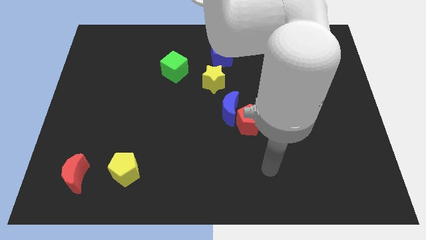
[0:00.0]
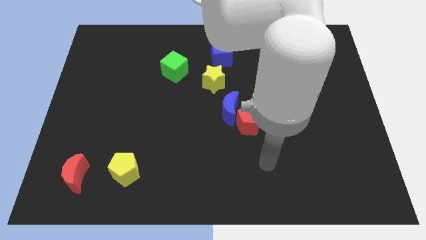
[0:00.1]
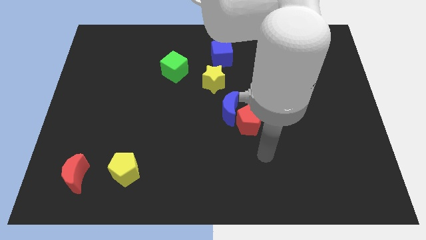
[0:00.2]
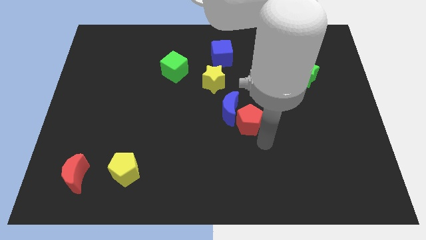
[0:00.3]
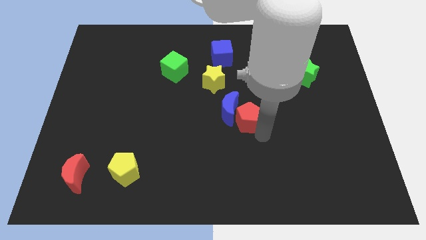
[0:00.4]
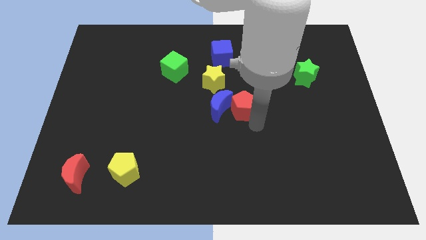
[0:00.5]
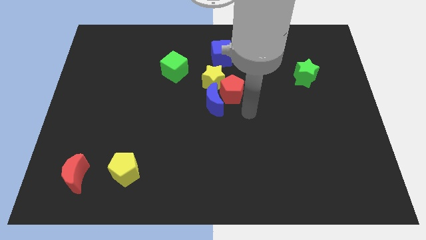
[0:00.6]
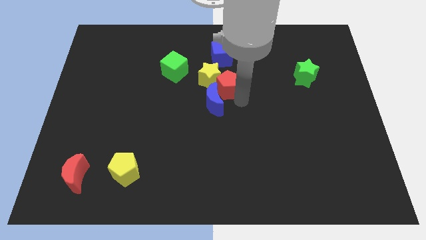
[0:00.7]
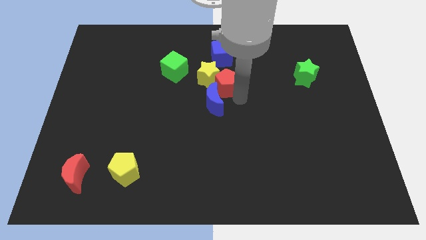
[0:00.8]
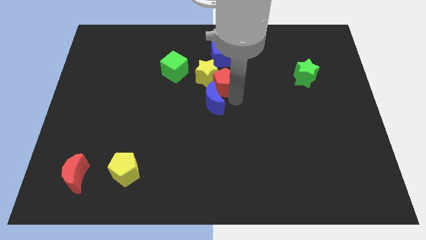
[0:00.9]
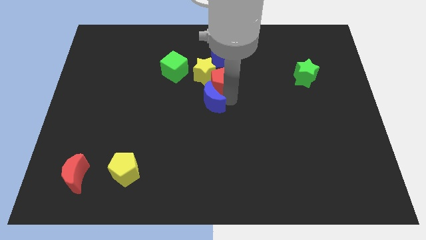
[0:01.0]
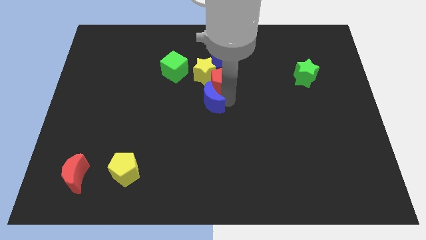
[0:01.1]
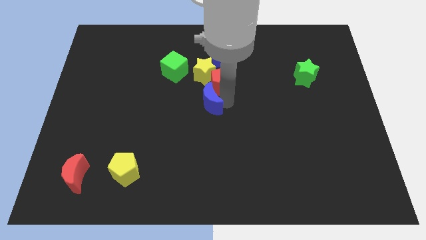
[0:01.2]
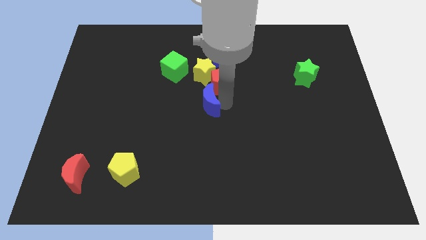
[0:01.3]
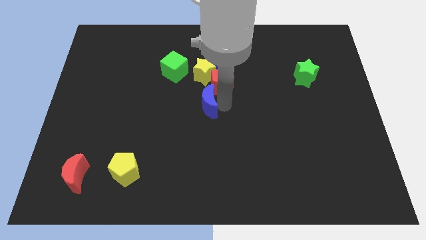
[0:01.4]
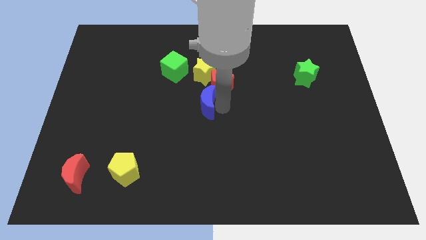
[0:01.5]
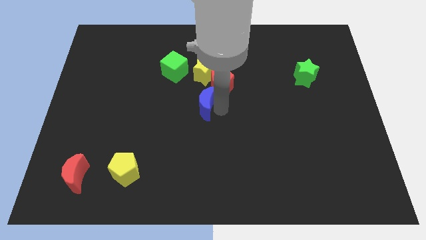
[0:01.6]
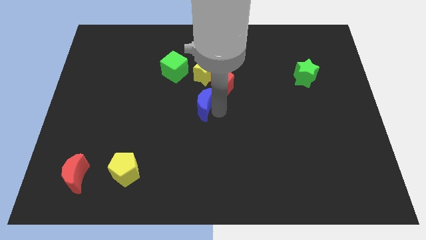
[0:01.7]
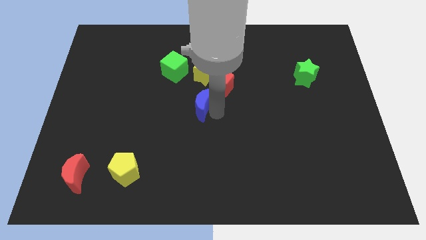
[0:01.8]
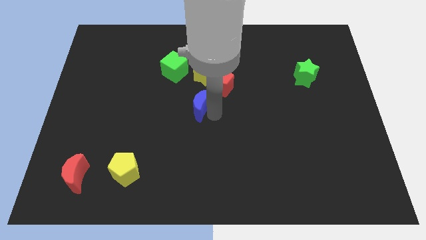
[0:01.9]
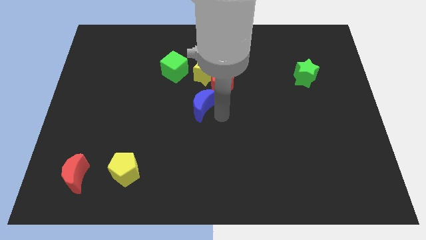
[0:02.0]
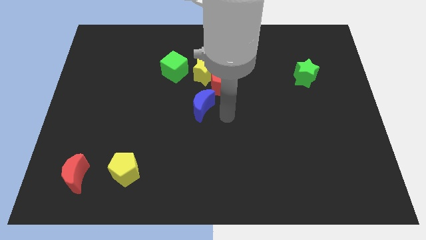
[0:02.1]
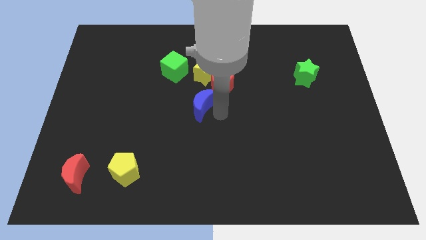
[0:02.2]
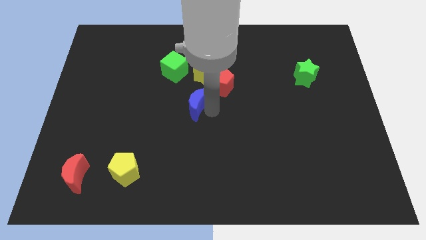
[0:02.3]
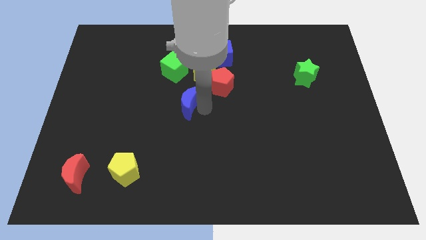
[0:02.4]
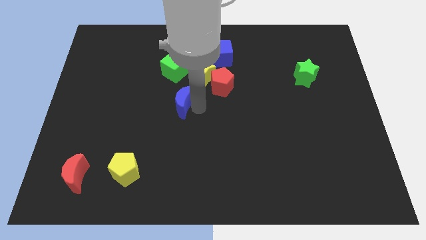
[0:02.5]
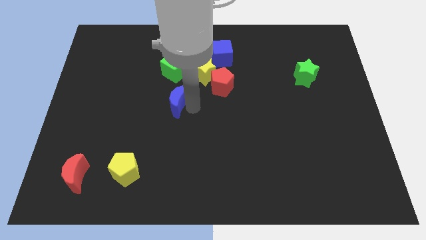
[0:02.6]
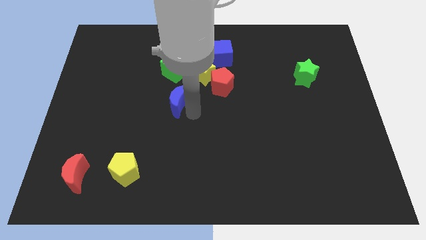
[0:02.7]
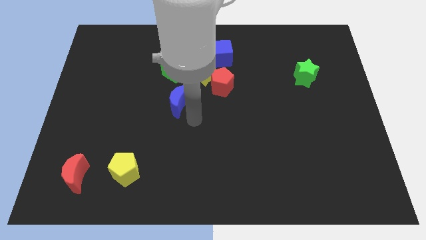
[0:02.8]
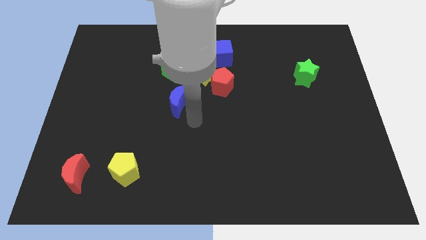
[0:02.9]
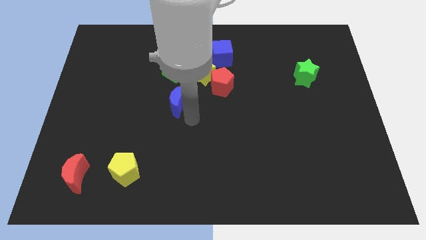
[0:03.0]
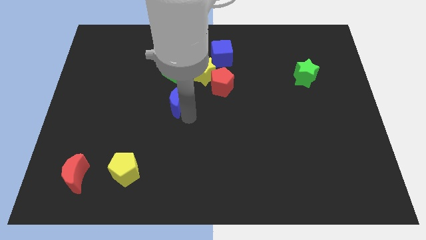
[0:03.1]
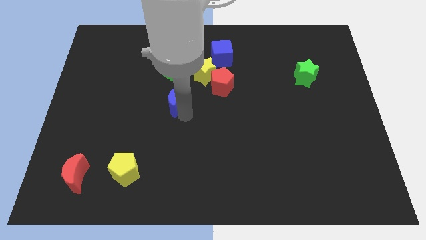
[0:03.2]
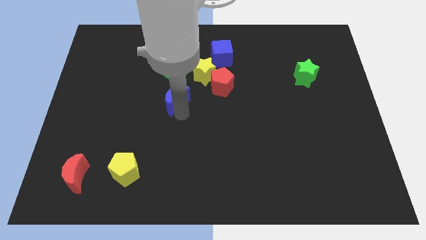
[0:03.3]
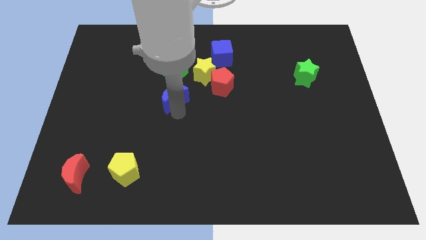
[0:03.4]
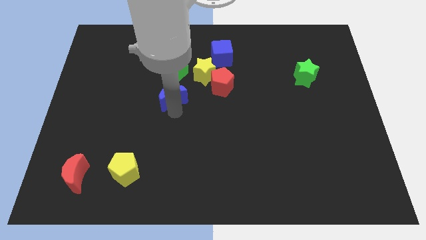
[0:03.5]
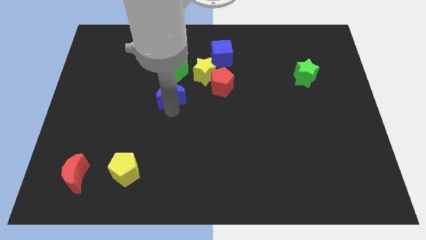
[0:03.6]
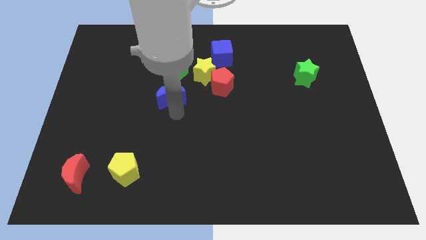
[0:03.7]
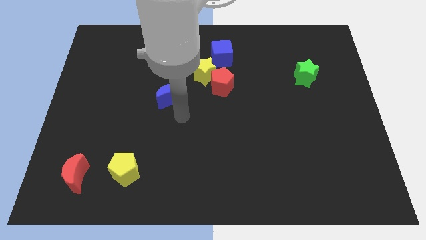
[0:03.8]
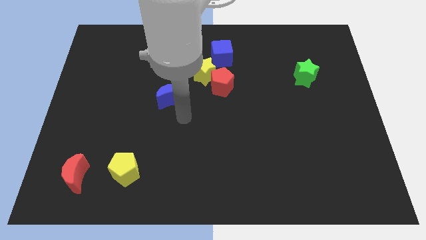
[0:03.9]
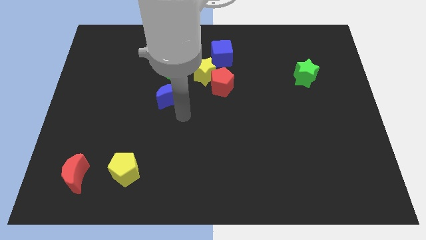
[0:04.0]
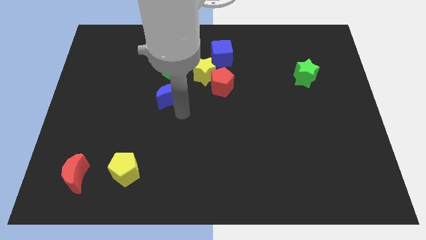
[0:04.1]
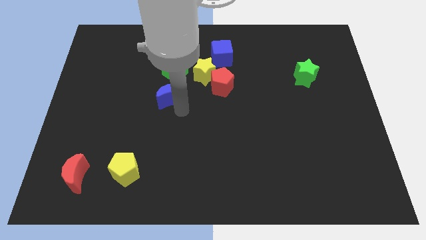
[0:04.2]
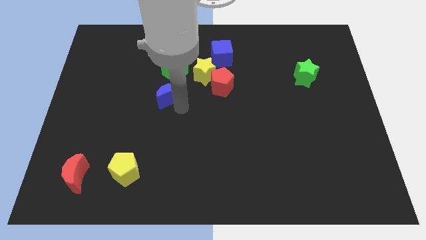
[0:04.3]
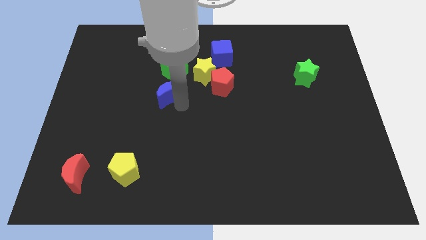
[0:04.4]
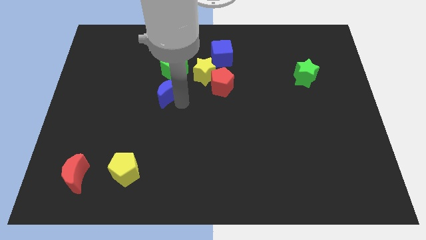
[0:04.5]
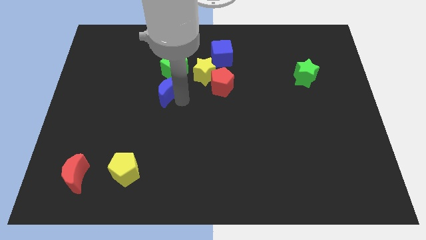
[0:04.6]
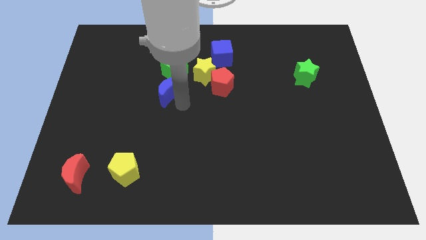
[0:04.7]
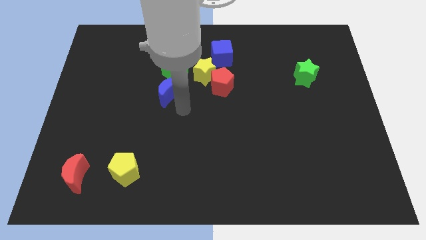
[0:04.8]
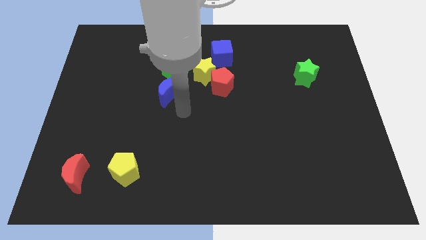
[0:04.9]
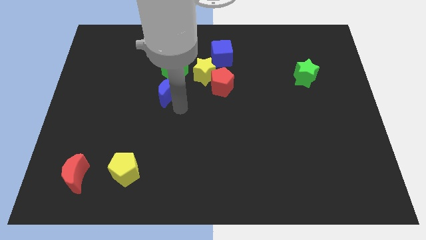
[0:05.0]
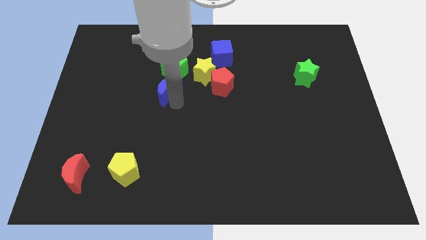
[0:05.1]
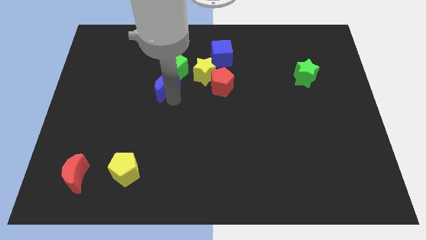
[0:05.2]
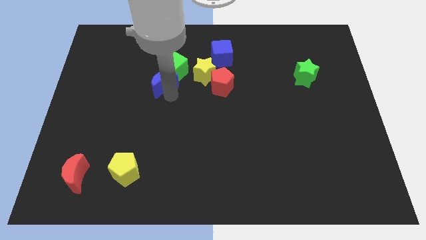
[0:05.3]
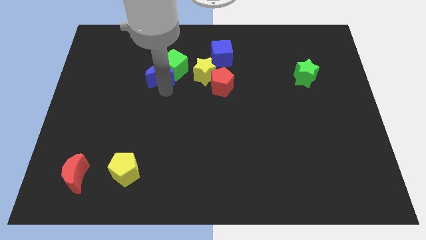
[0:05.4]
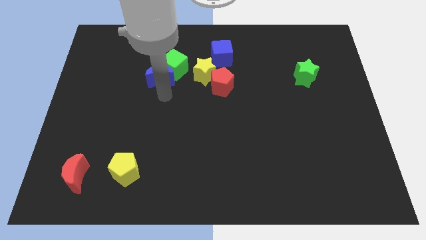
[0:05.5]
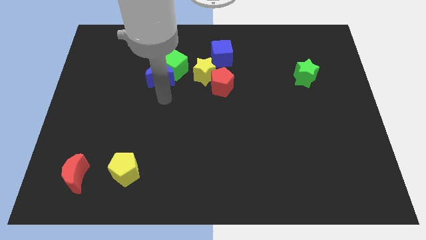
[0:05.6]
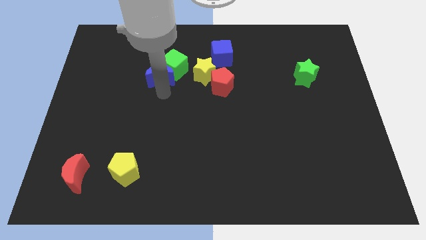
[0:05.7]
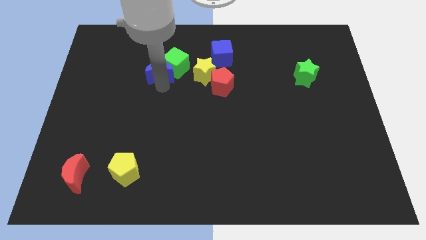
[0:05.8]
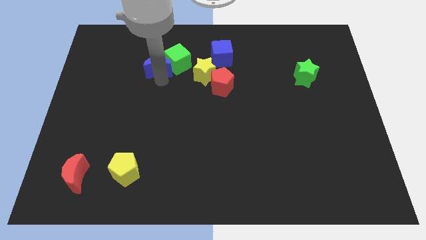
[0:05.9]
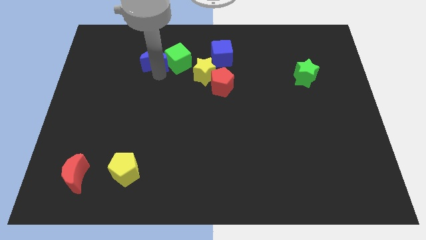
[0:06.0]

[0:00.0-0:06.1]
move the blue moon diagonally up and to the left of the green cube
